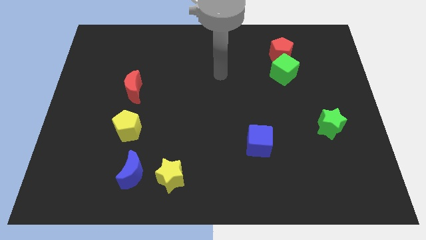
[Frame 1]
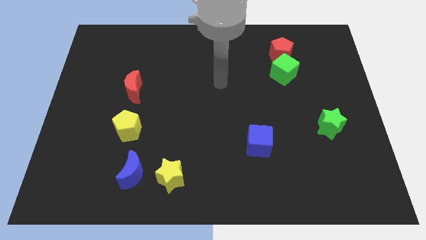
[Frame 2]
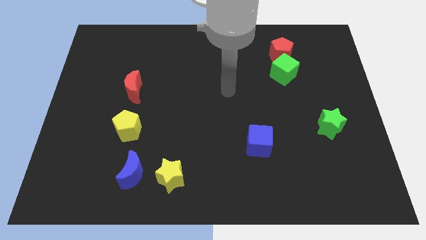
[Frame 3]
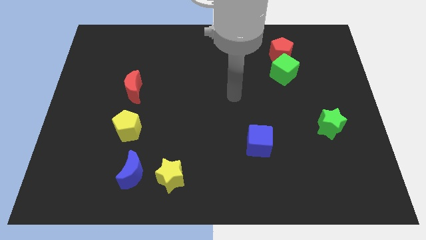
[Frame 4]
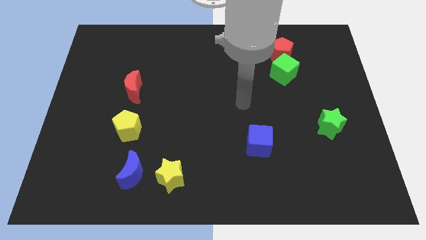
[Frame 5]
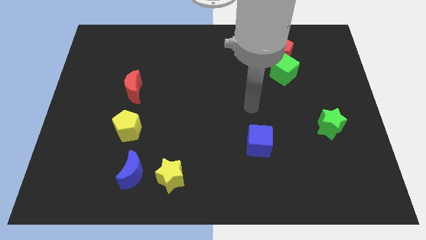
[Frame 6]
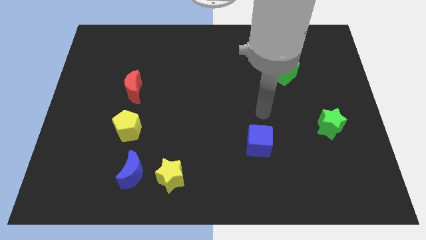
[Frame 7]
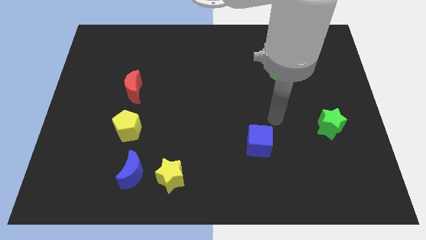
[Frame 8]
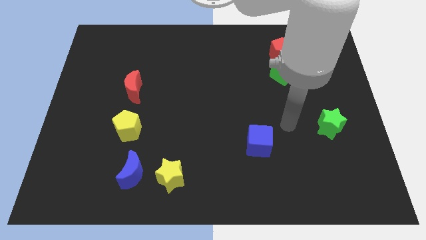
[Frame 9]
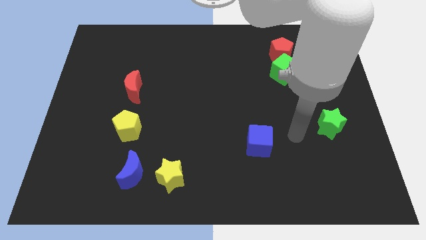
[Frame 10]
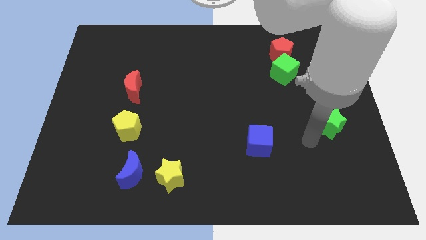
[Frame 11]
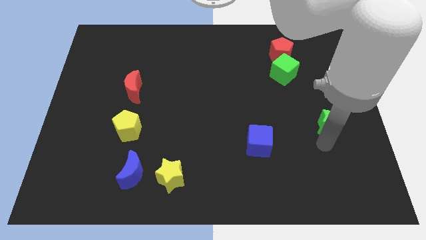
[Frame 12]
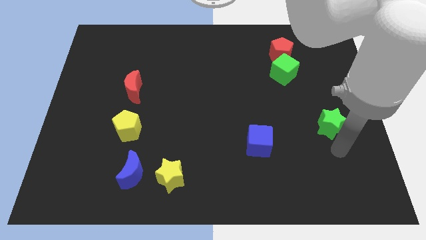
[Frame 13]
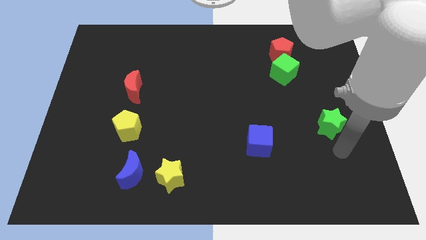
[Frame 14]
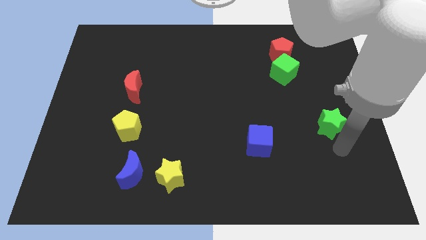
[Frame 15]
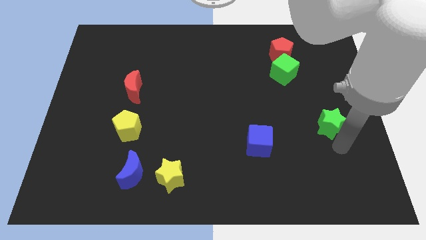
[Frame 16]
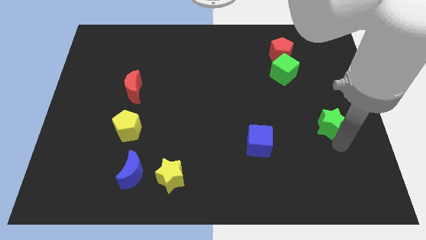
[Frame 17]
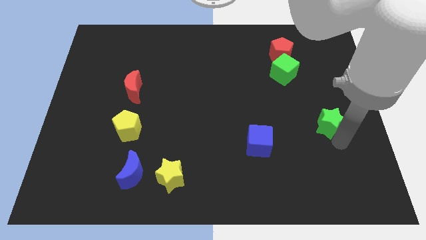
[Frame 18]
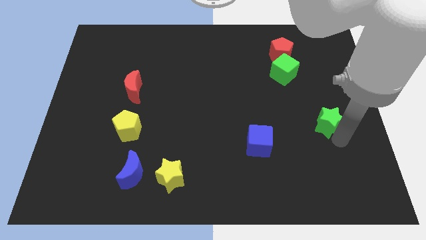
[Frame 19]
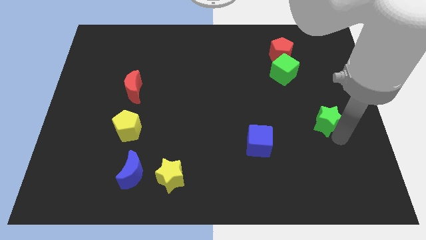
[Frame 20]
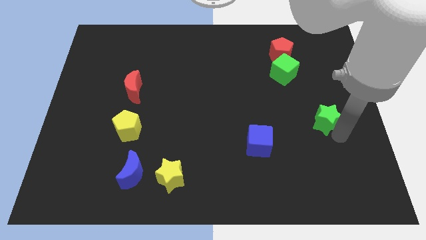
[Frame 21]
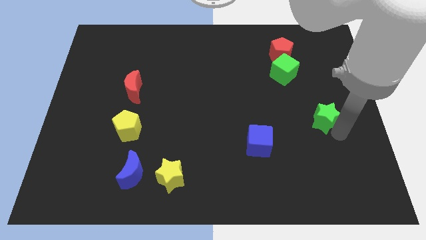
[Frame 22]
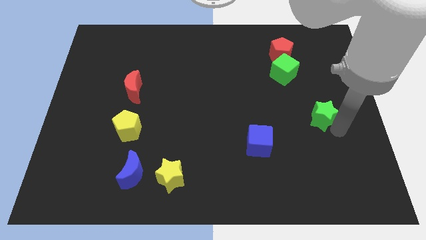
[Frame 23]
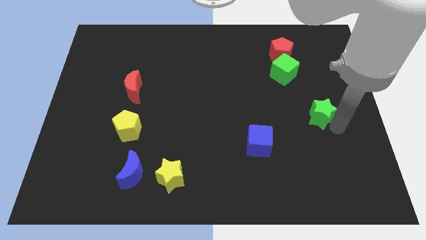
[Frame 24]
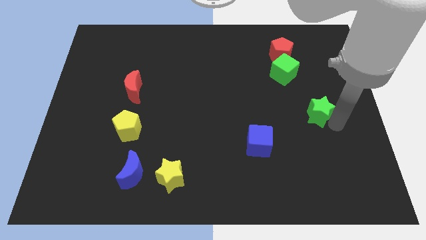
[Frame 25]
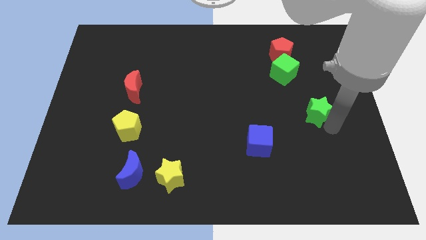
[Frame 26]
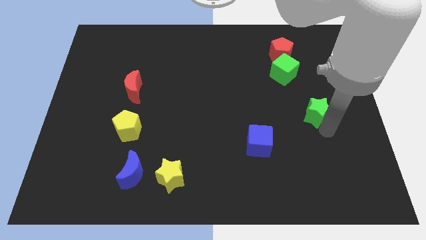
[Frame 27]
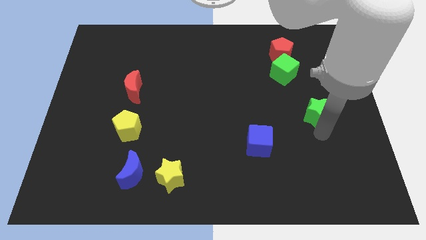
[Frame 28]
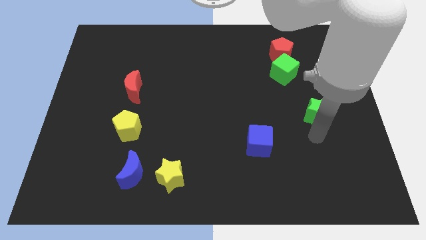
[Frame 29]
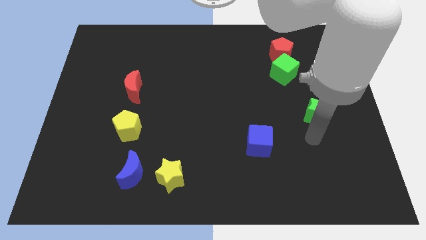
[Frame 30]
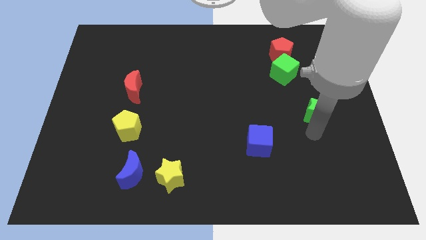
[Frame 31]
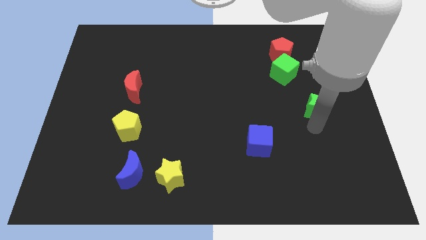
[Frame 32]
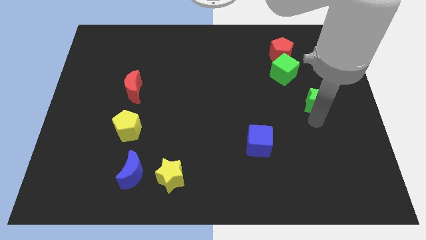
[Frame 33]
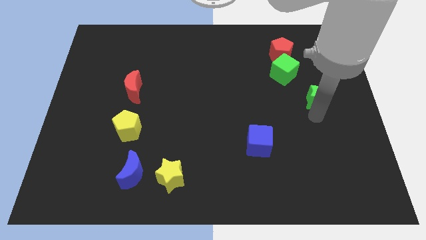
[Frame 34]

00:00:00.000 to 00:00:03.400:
move the green star a little up

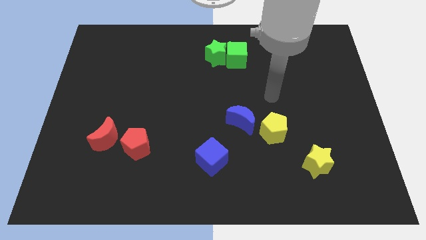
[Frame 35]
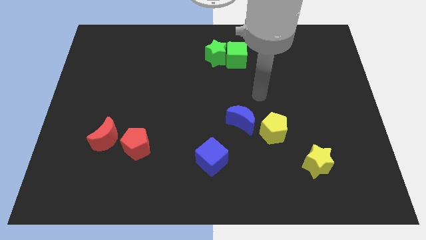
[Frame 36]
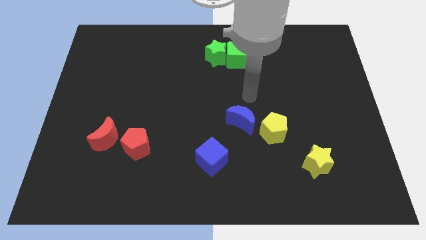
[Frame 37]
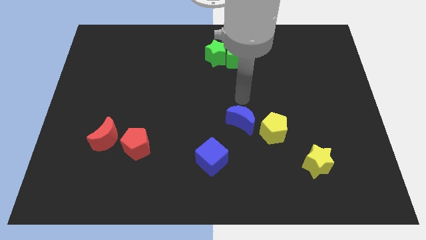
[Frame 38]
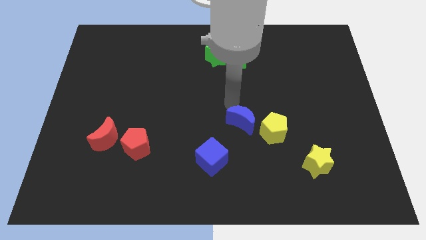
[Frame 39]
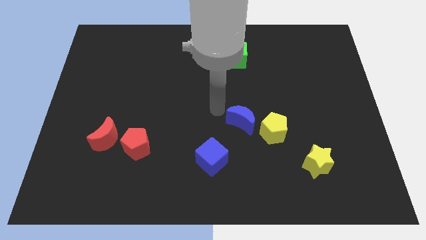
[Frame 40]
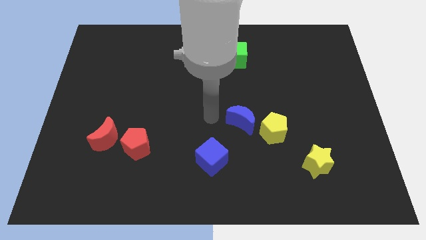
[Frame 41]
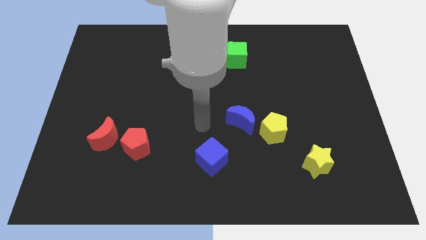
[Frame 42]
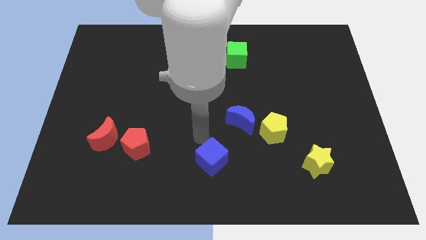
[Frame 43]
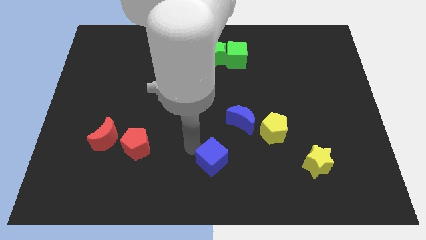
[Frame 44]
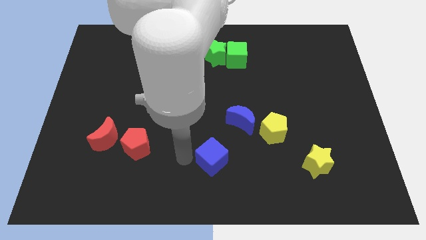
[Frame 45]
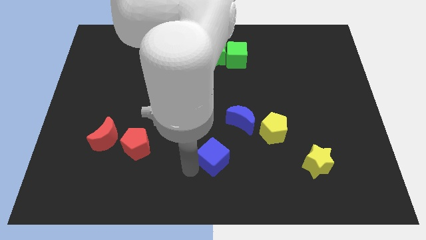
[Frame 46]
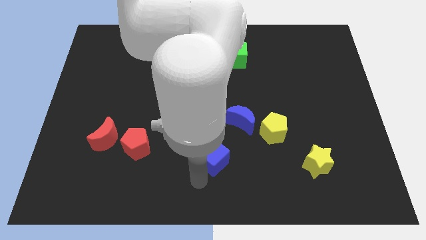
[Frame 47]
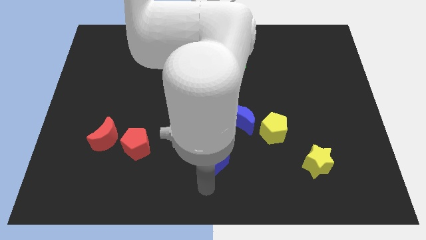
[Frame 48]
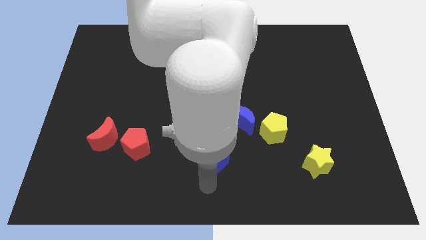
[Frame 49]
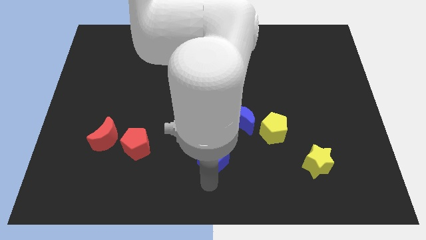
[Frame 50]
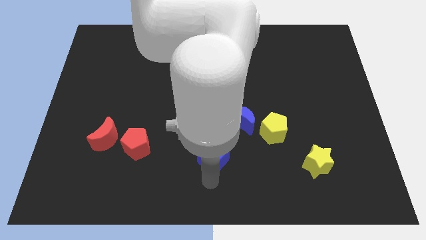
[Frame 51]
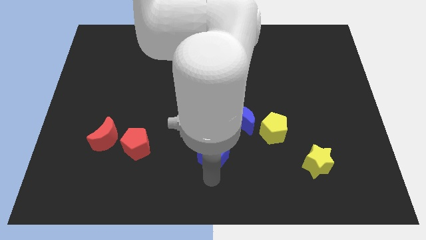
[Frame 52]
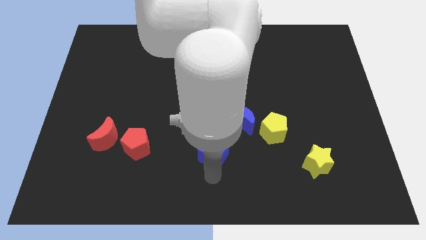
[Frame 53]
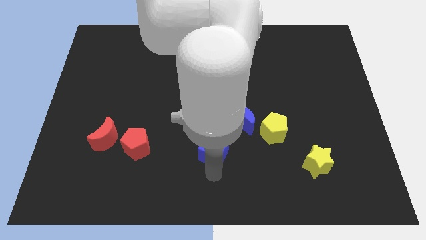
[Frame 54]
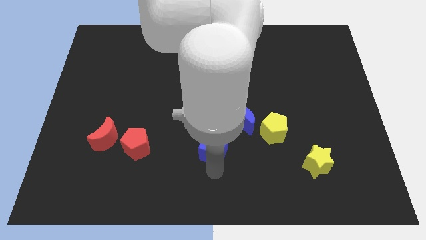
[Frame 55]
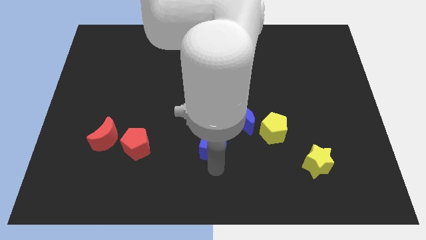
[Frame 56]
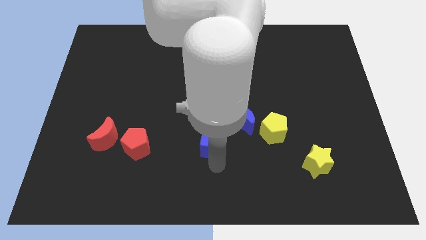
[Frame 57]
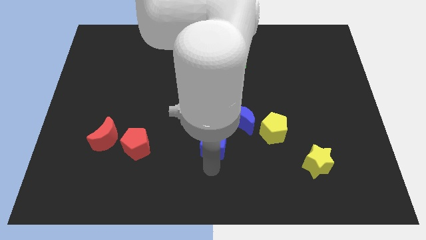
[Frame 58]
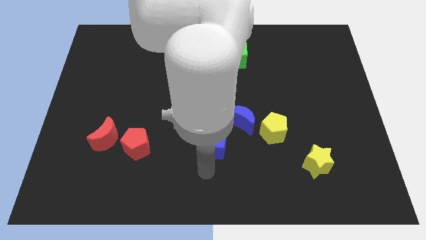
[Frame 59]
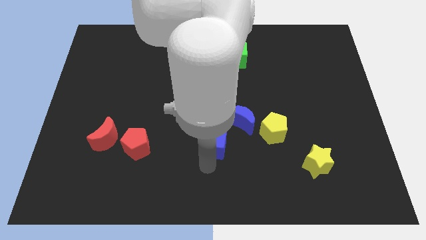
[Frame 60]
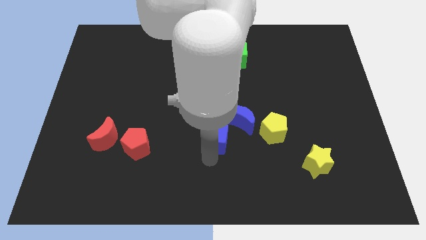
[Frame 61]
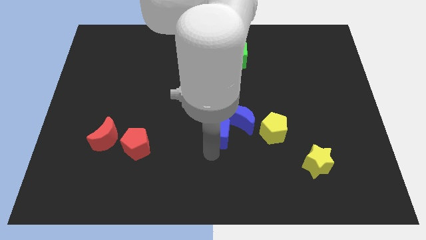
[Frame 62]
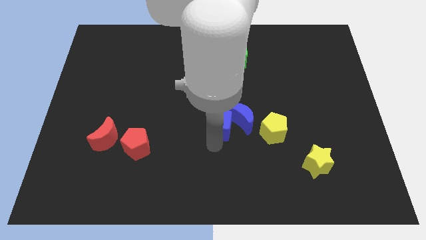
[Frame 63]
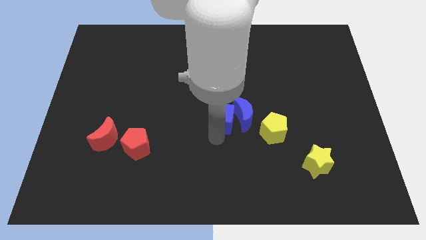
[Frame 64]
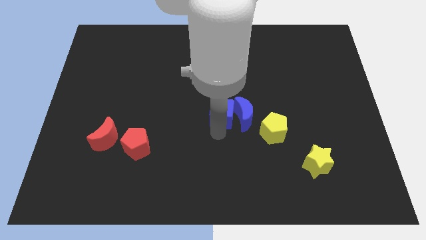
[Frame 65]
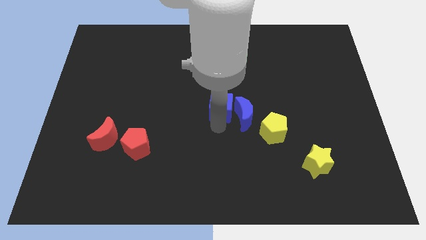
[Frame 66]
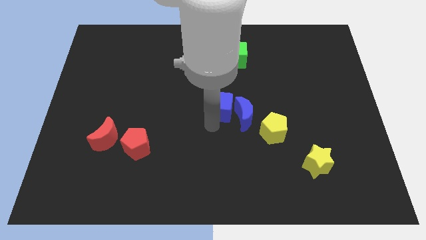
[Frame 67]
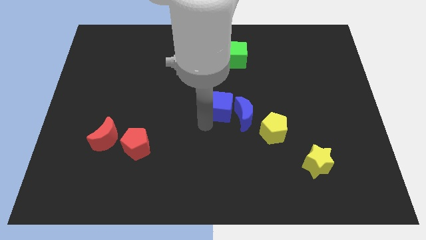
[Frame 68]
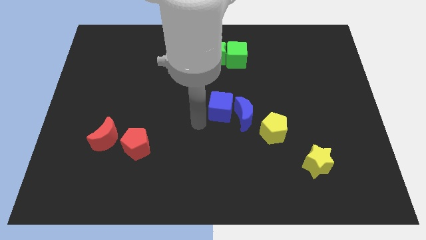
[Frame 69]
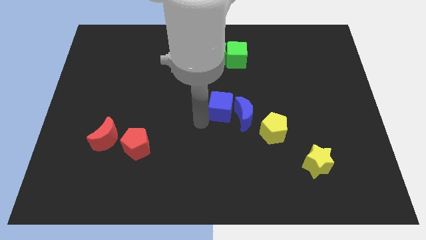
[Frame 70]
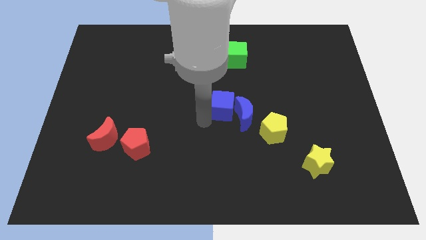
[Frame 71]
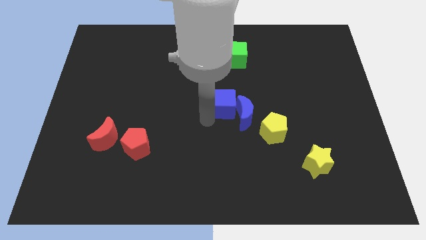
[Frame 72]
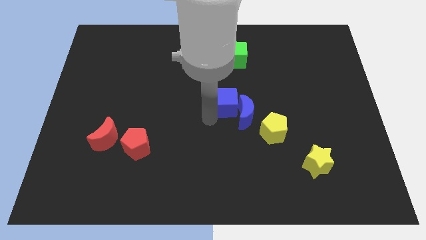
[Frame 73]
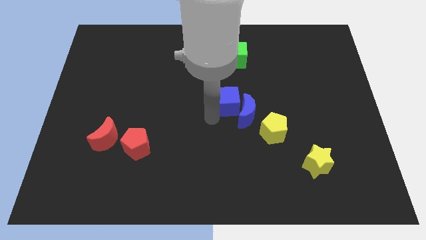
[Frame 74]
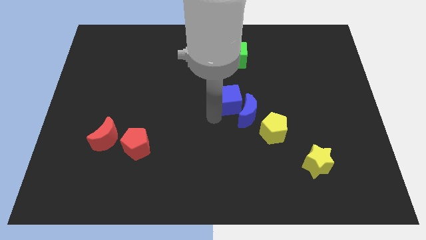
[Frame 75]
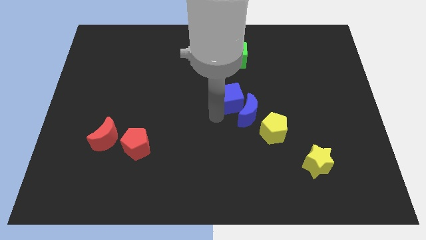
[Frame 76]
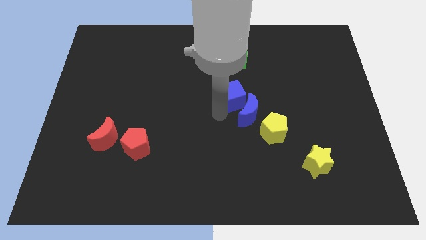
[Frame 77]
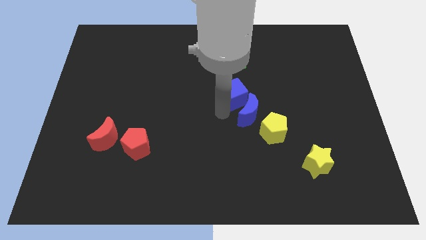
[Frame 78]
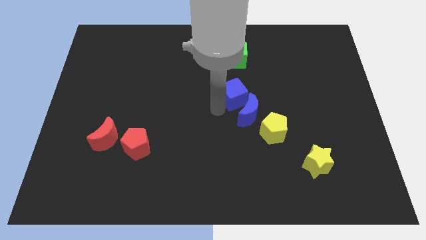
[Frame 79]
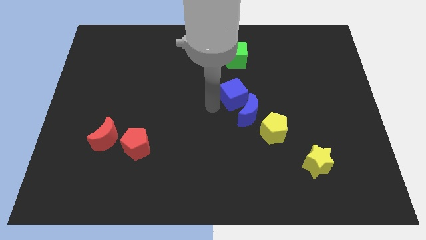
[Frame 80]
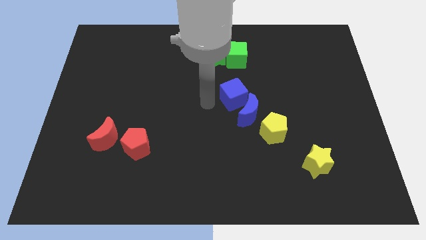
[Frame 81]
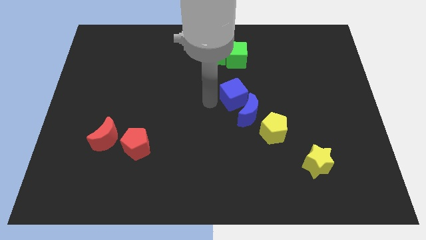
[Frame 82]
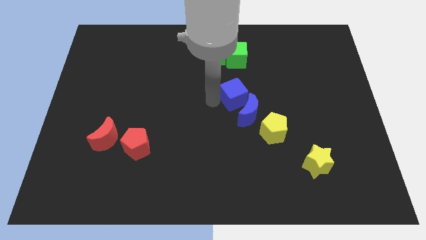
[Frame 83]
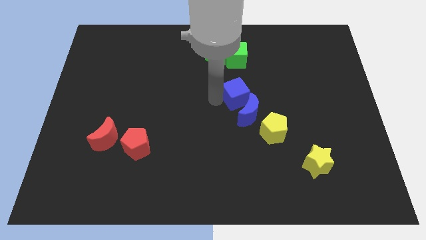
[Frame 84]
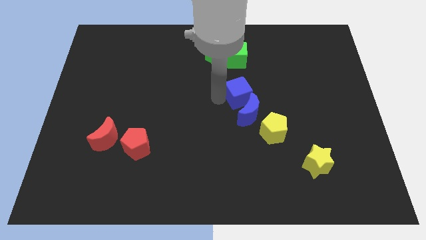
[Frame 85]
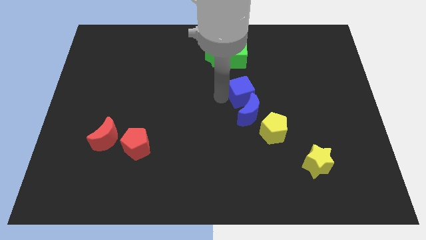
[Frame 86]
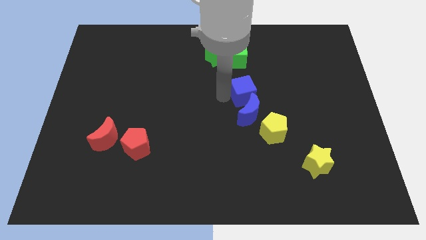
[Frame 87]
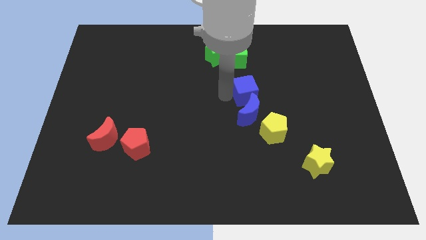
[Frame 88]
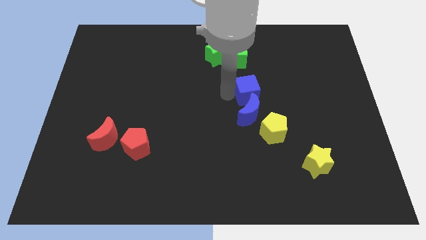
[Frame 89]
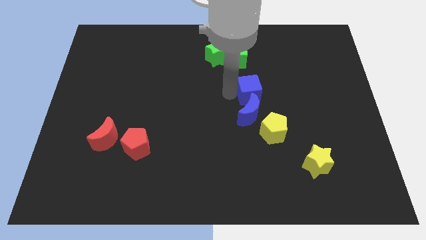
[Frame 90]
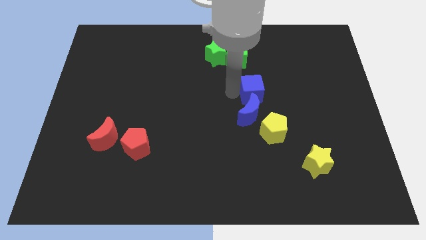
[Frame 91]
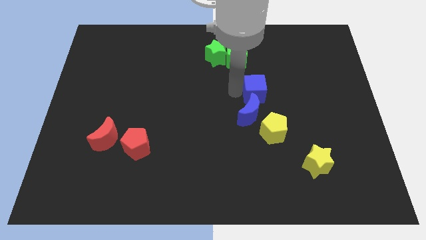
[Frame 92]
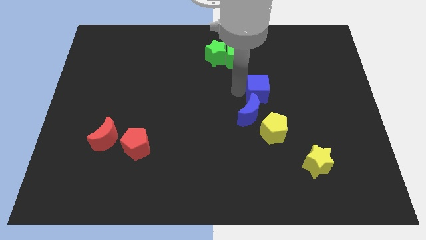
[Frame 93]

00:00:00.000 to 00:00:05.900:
push the blue cube upwards and to the right diagonally
